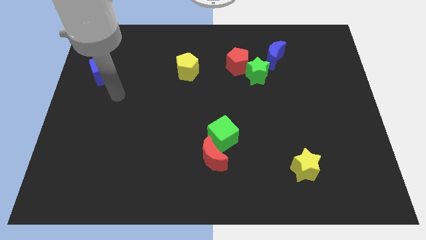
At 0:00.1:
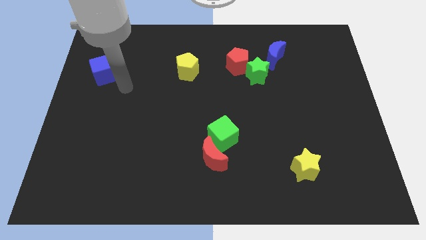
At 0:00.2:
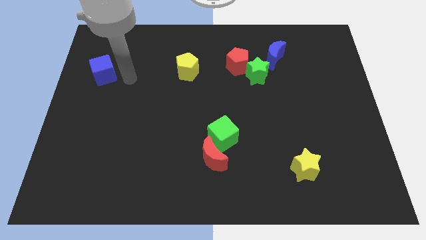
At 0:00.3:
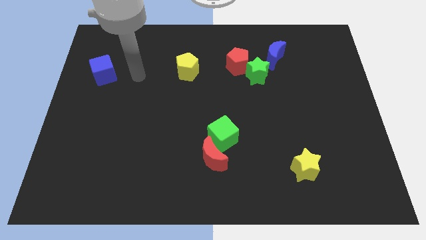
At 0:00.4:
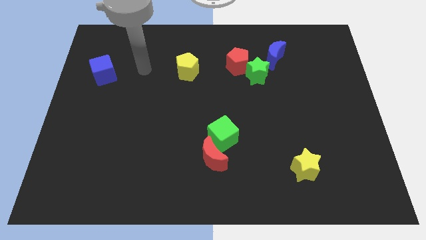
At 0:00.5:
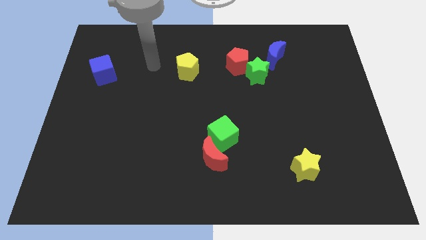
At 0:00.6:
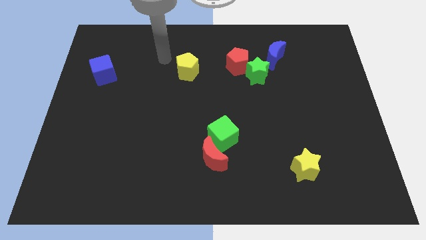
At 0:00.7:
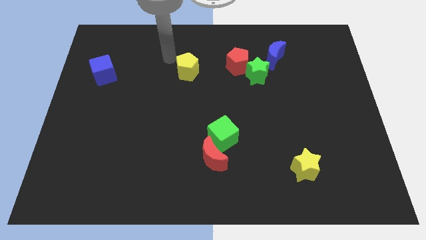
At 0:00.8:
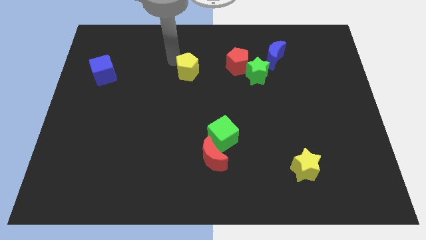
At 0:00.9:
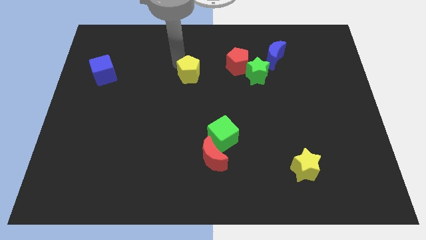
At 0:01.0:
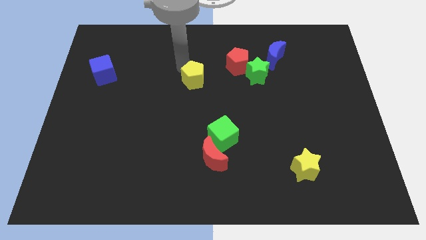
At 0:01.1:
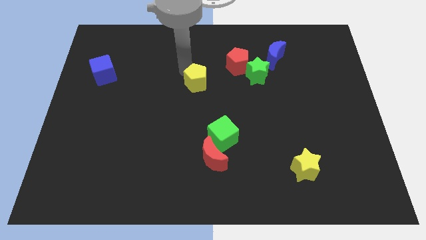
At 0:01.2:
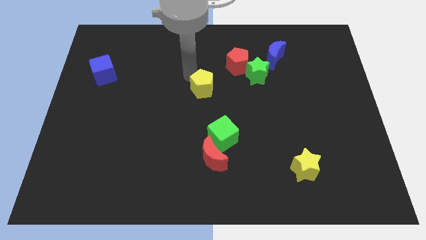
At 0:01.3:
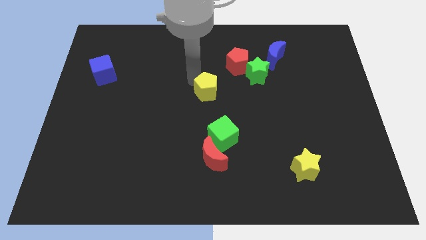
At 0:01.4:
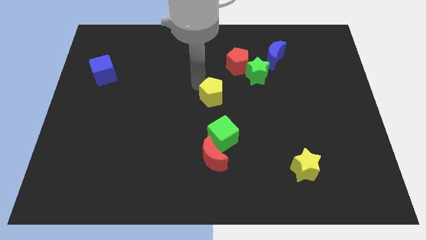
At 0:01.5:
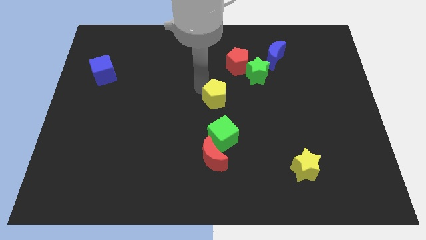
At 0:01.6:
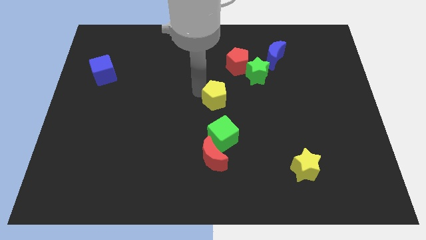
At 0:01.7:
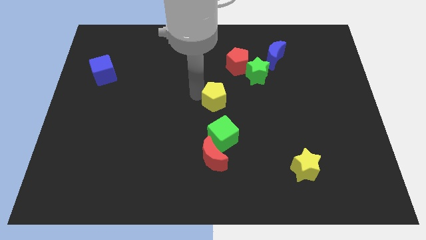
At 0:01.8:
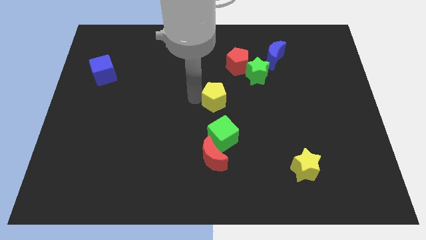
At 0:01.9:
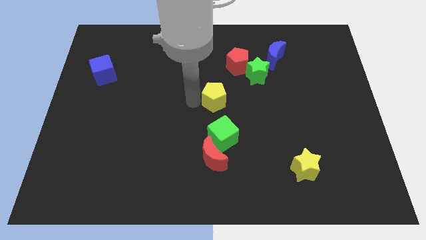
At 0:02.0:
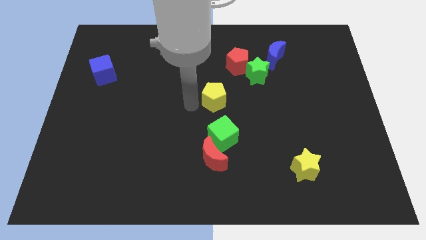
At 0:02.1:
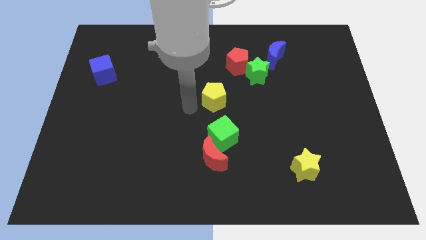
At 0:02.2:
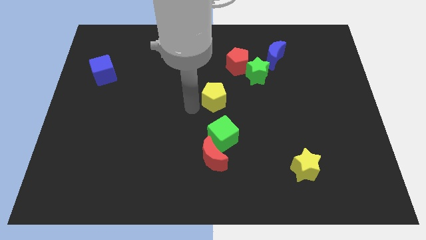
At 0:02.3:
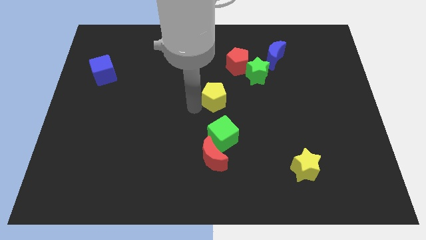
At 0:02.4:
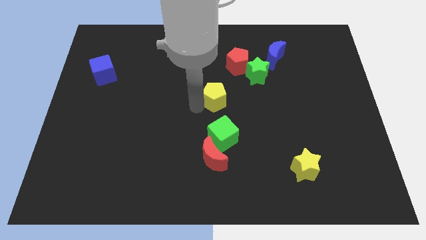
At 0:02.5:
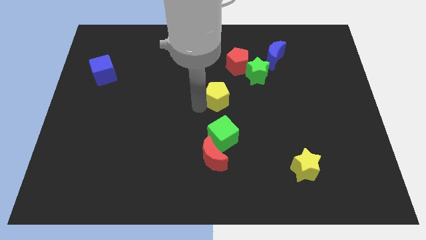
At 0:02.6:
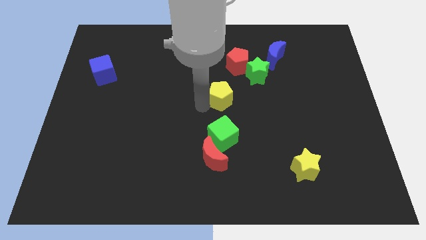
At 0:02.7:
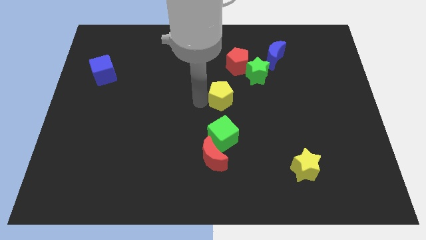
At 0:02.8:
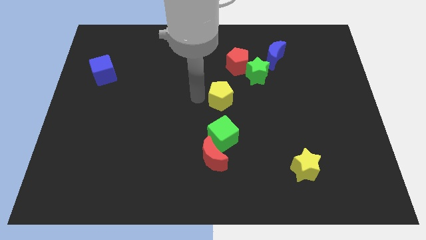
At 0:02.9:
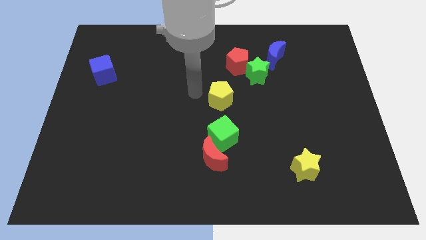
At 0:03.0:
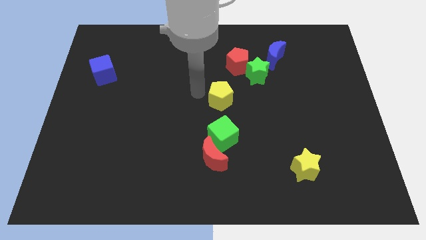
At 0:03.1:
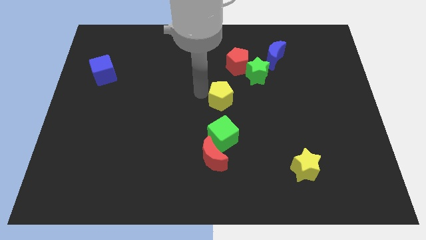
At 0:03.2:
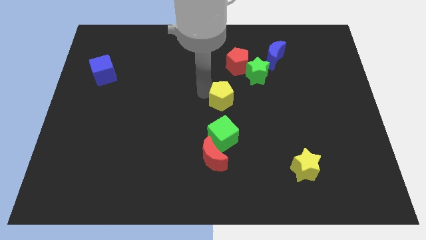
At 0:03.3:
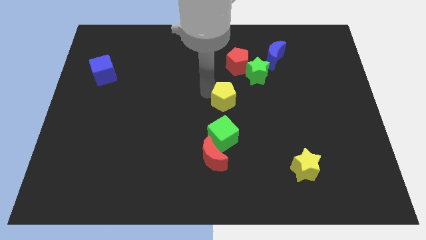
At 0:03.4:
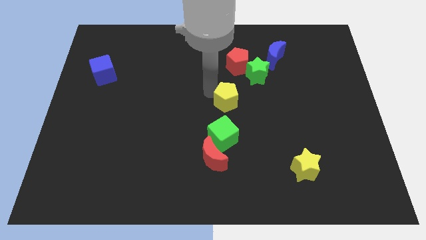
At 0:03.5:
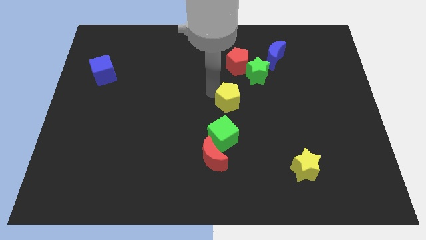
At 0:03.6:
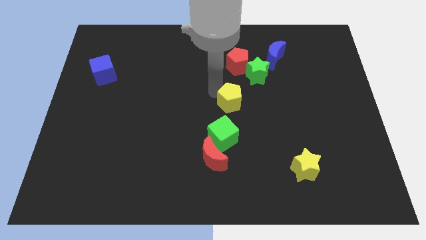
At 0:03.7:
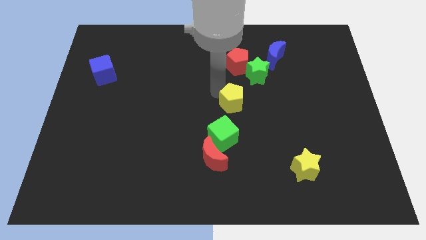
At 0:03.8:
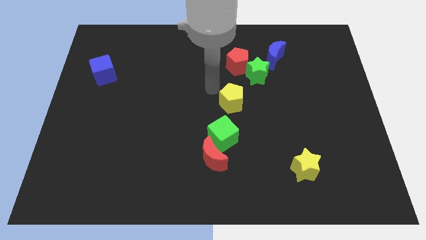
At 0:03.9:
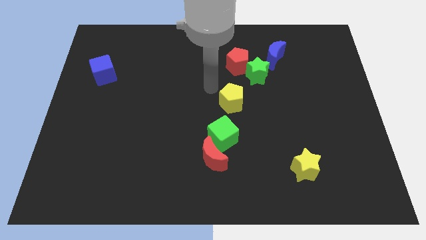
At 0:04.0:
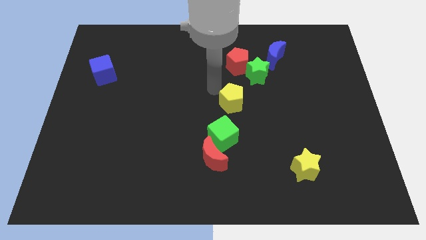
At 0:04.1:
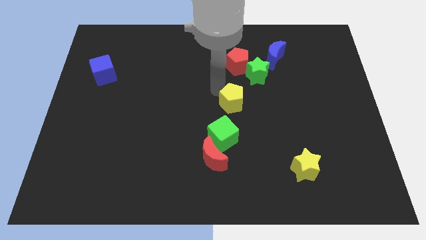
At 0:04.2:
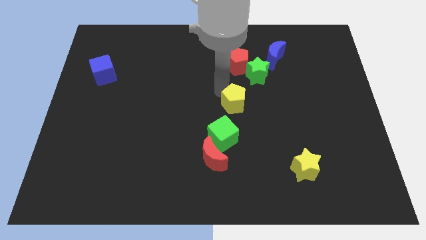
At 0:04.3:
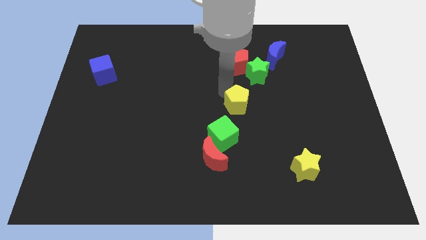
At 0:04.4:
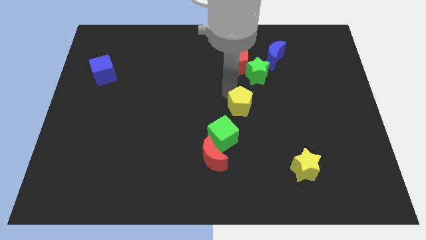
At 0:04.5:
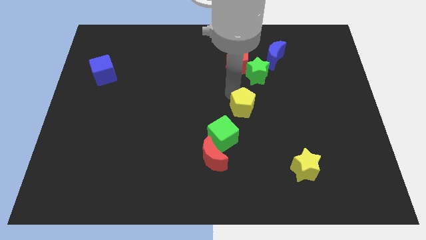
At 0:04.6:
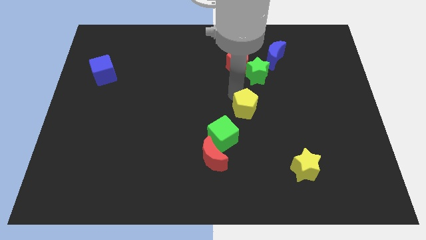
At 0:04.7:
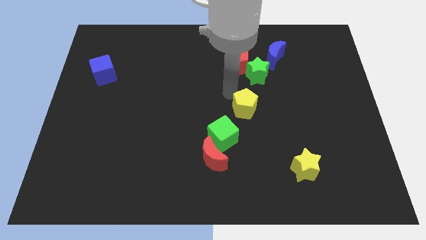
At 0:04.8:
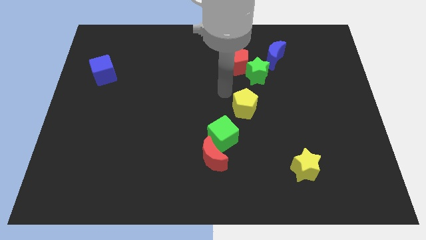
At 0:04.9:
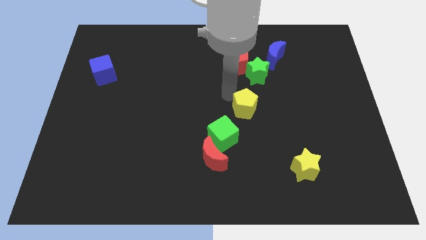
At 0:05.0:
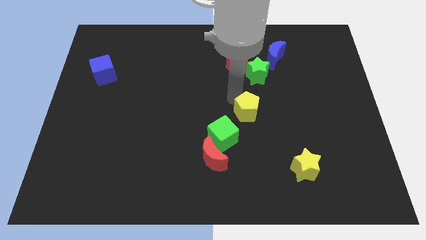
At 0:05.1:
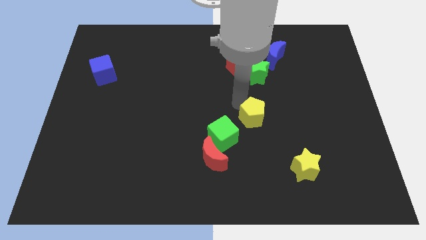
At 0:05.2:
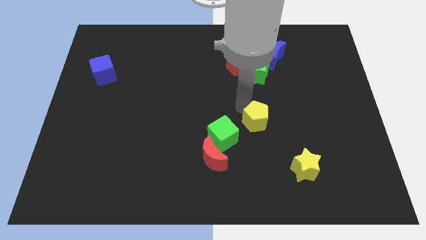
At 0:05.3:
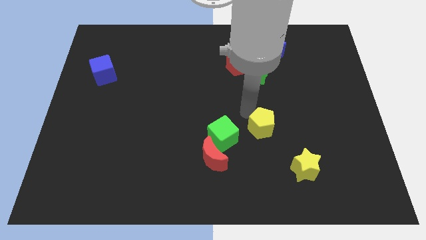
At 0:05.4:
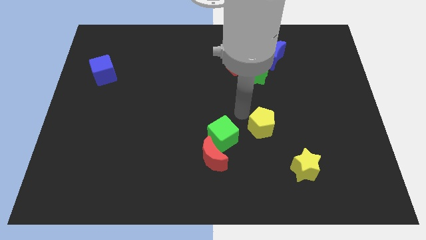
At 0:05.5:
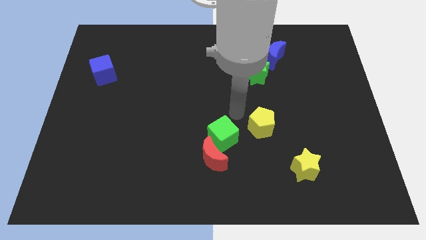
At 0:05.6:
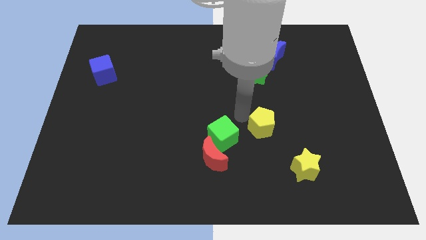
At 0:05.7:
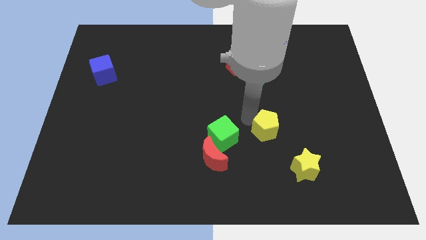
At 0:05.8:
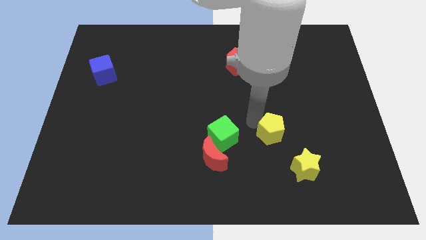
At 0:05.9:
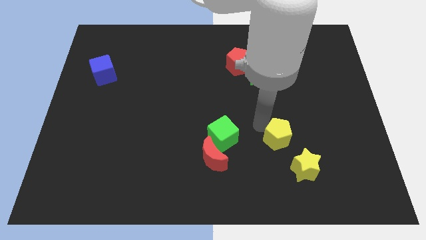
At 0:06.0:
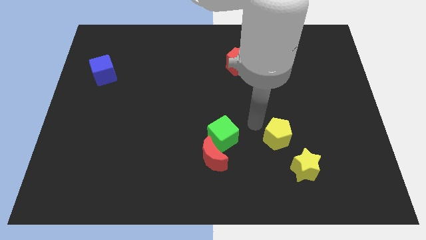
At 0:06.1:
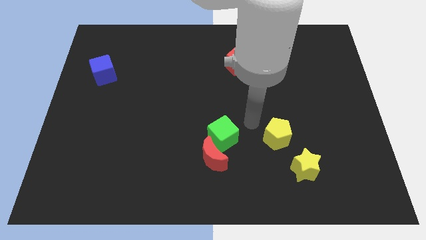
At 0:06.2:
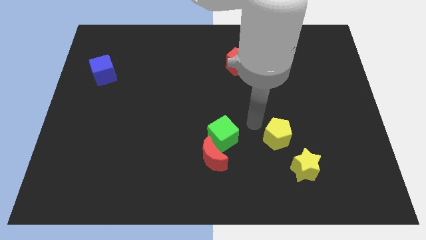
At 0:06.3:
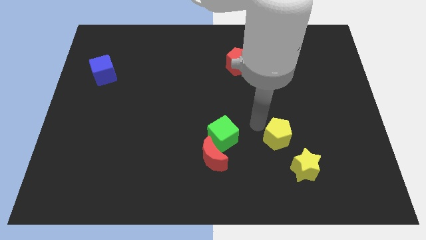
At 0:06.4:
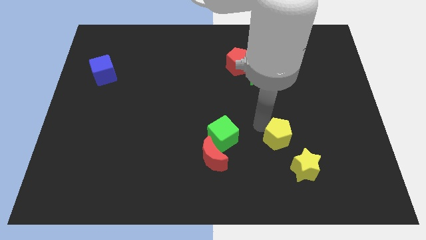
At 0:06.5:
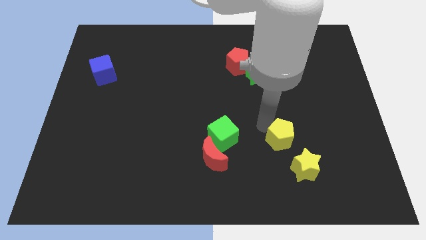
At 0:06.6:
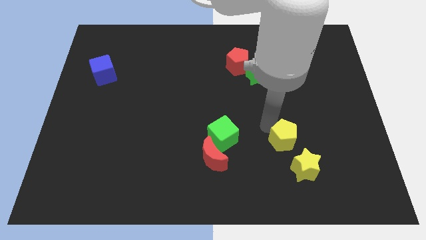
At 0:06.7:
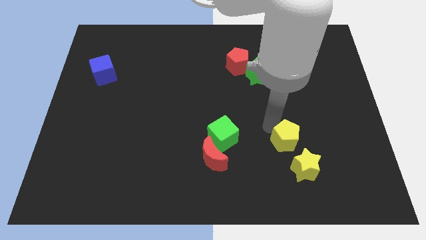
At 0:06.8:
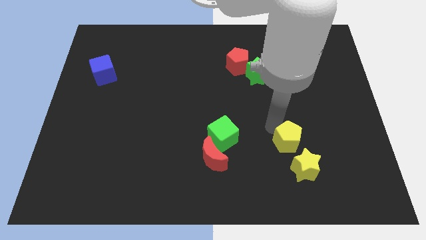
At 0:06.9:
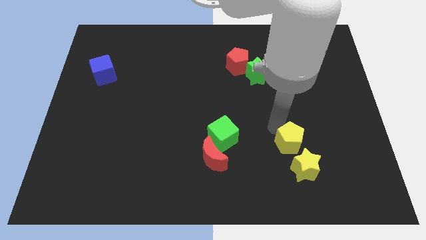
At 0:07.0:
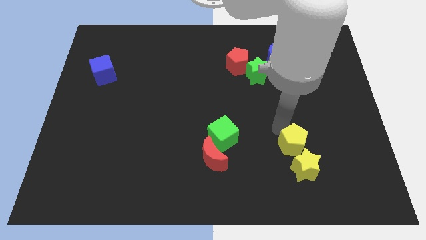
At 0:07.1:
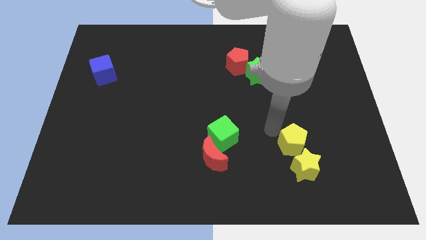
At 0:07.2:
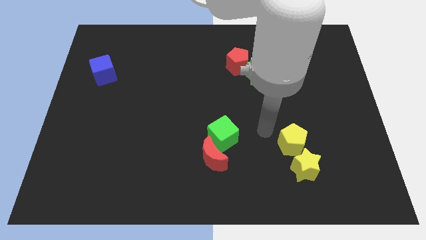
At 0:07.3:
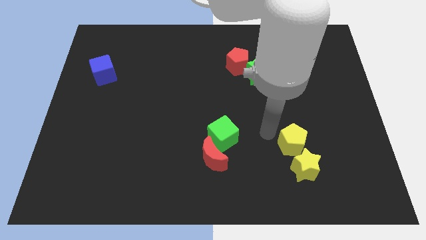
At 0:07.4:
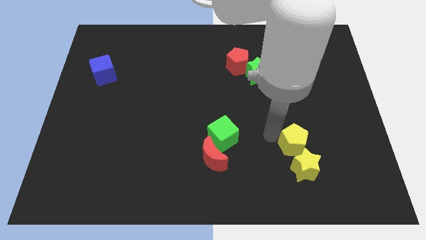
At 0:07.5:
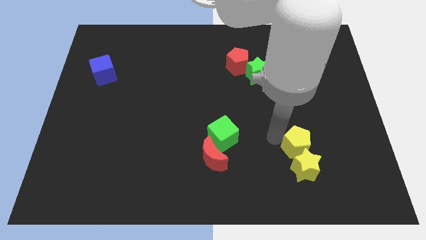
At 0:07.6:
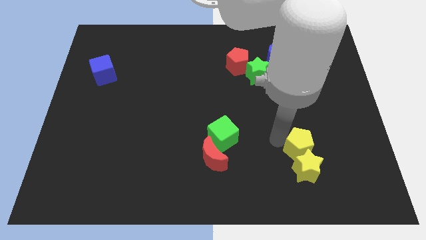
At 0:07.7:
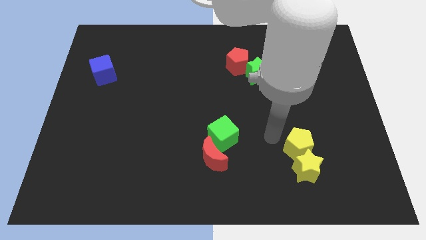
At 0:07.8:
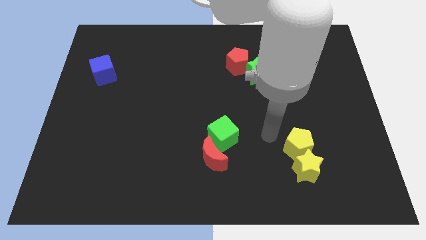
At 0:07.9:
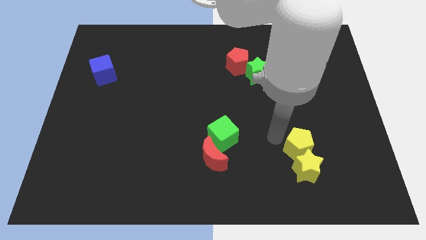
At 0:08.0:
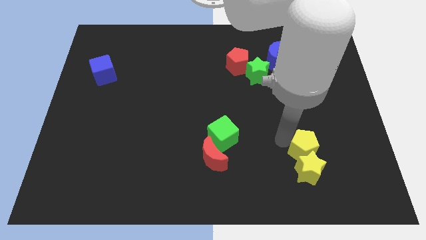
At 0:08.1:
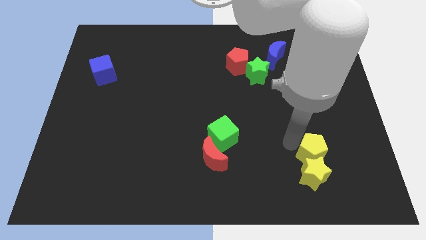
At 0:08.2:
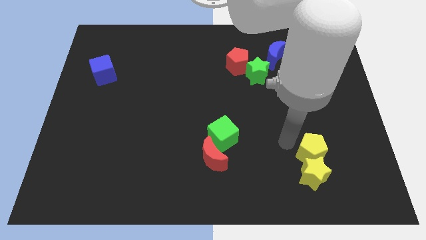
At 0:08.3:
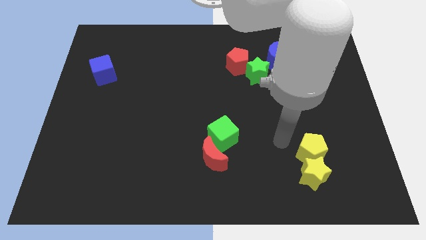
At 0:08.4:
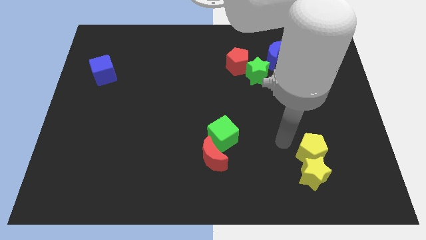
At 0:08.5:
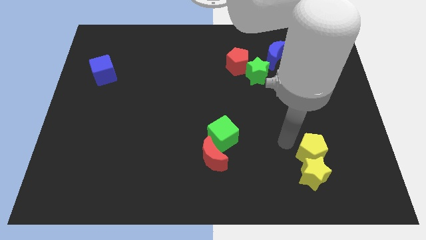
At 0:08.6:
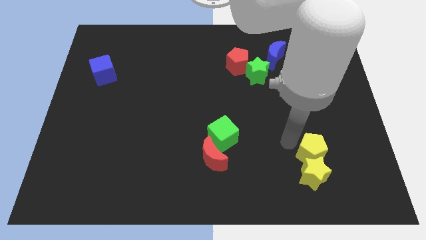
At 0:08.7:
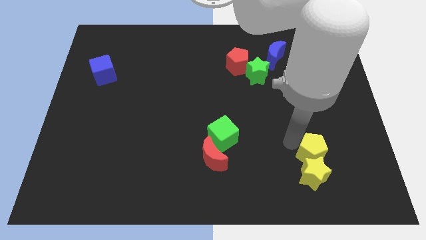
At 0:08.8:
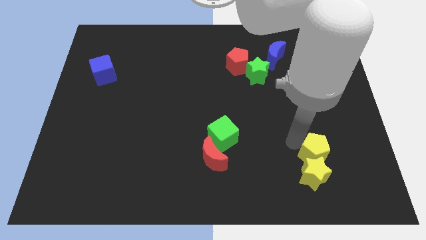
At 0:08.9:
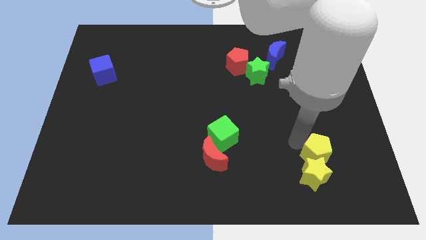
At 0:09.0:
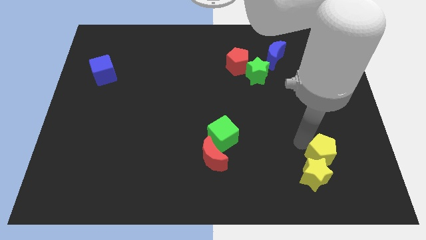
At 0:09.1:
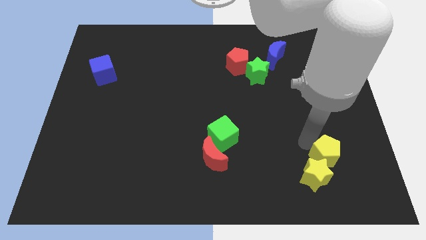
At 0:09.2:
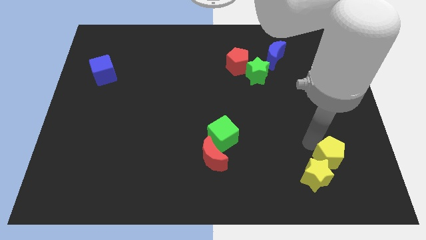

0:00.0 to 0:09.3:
slide the yellow pentagon just right of the yellow star
